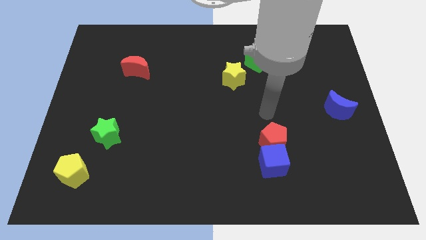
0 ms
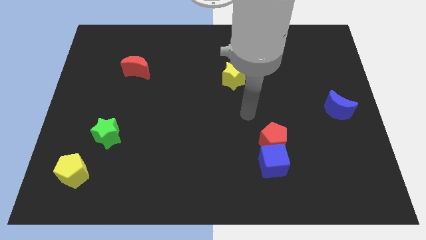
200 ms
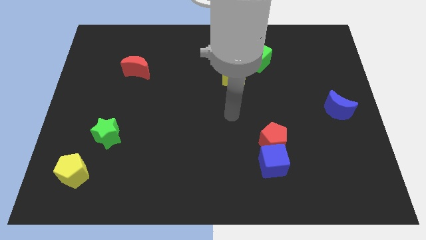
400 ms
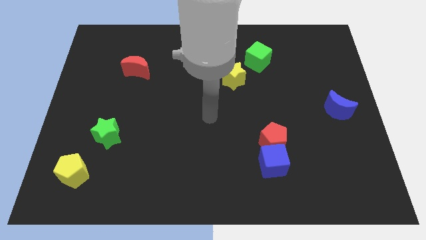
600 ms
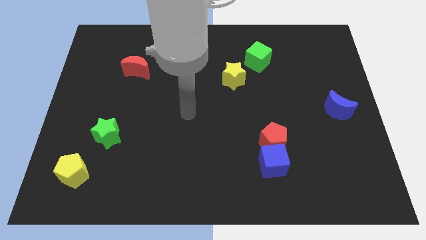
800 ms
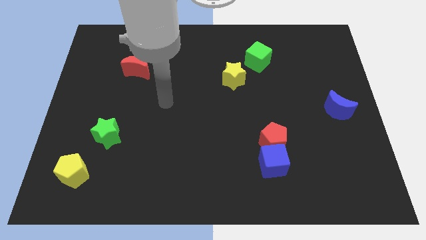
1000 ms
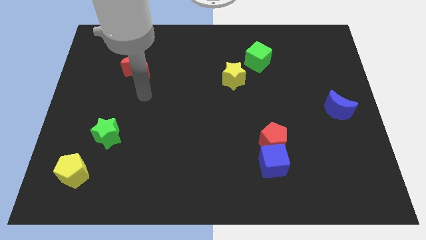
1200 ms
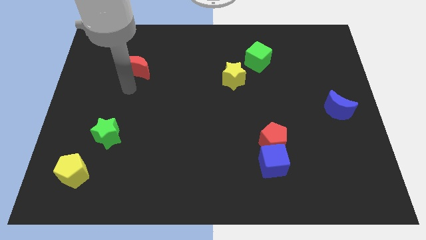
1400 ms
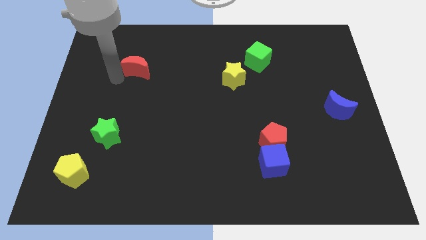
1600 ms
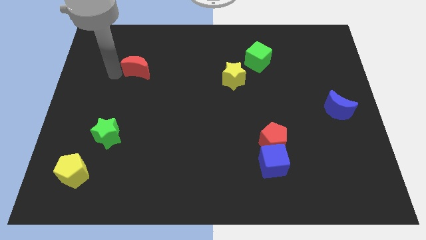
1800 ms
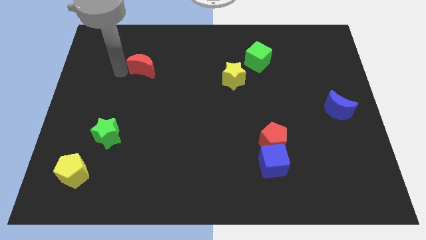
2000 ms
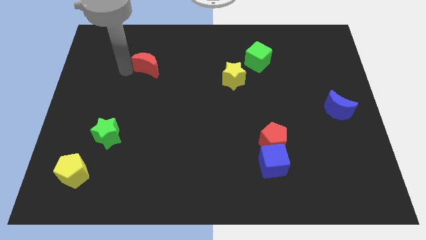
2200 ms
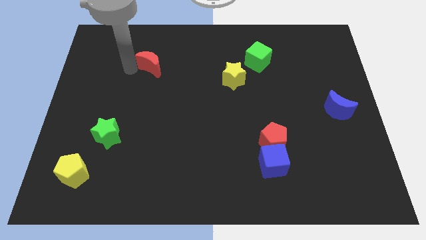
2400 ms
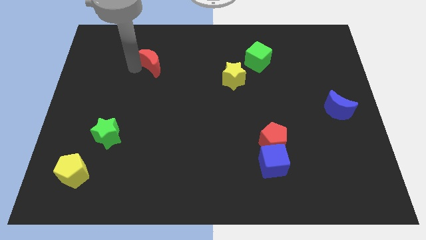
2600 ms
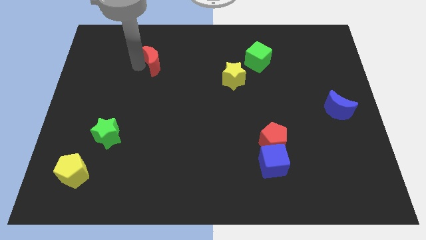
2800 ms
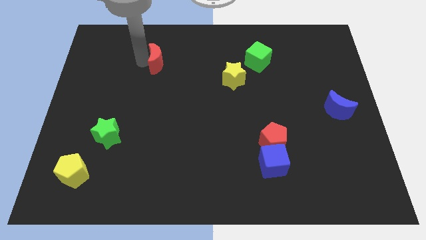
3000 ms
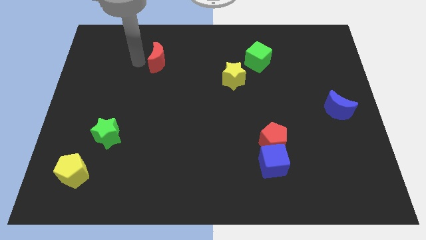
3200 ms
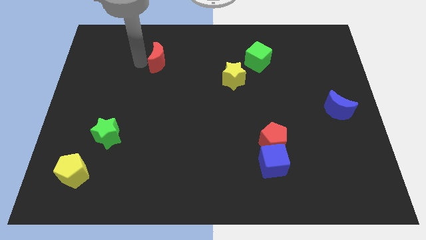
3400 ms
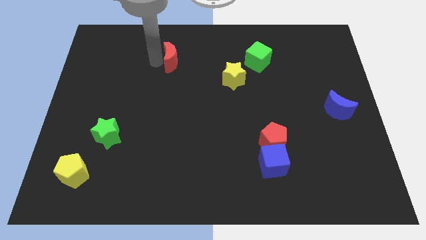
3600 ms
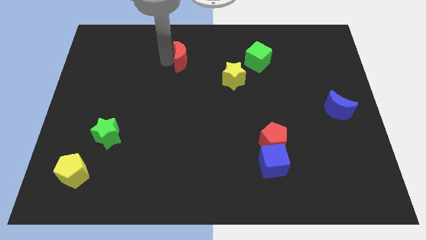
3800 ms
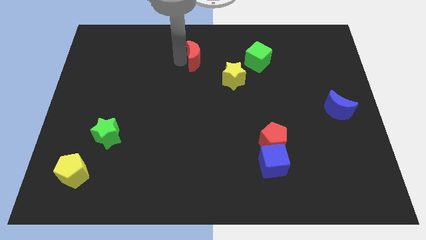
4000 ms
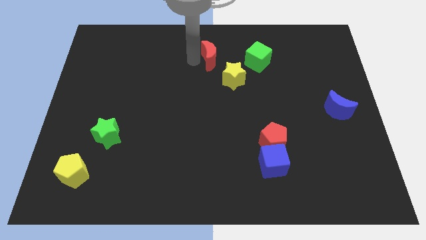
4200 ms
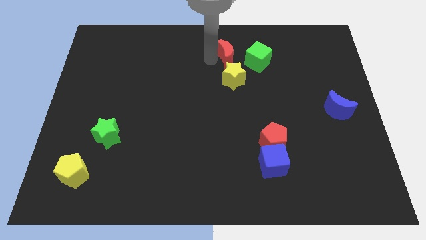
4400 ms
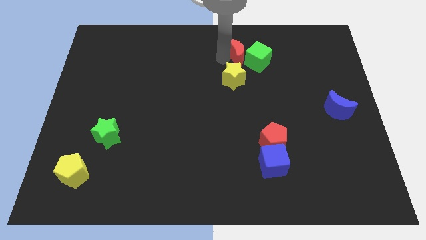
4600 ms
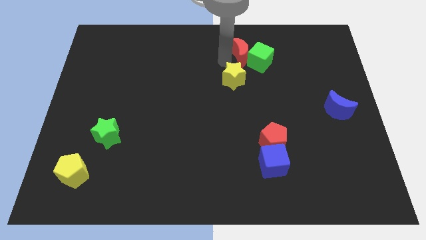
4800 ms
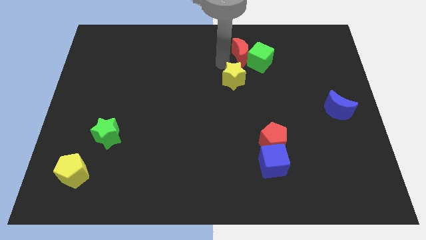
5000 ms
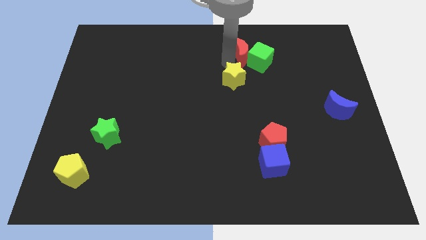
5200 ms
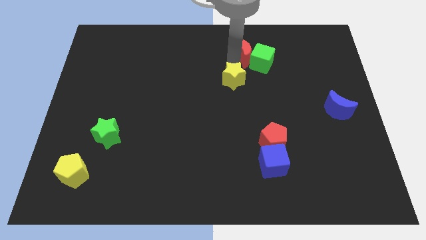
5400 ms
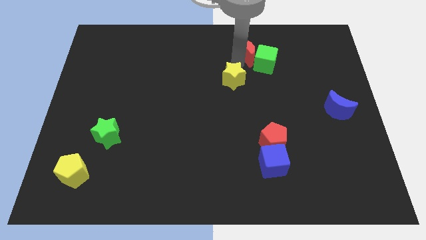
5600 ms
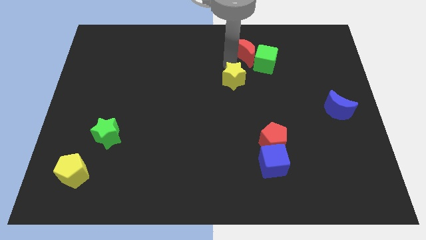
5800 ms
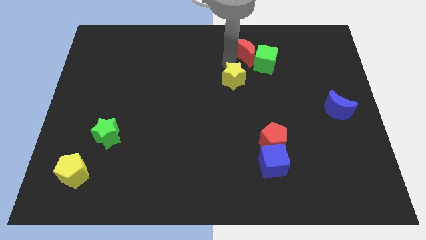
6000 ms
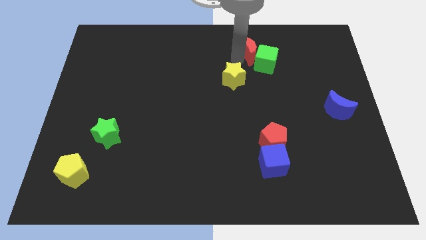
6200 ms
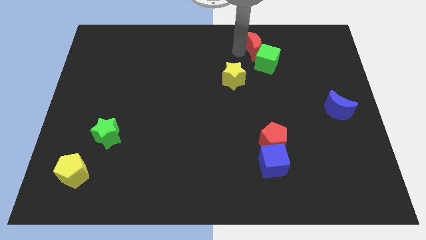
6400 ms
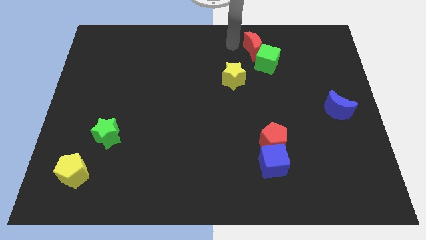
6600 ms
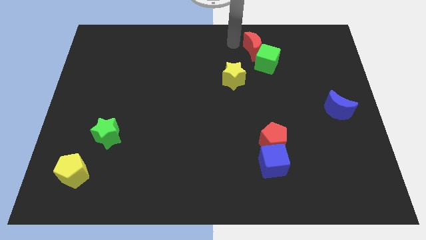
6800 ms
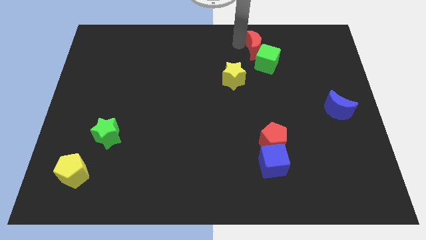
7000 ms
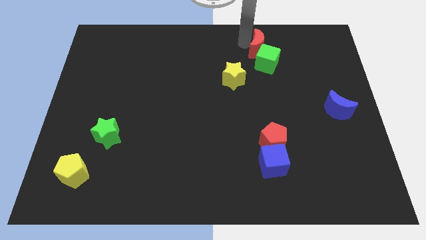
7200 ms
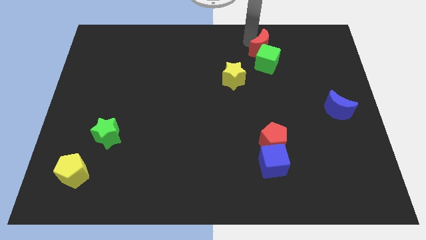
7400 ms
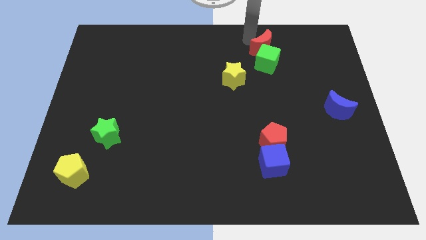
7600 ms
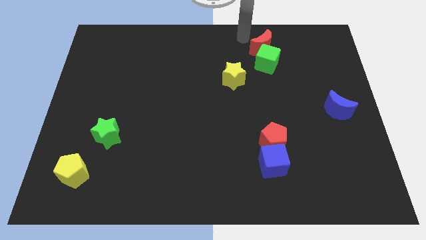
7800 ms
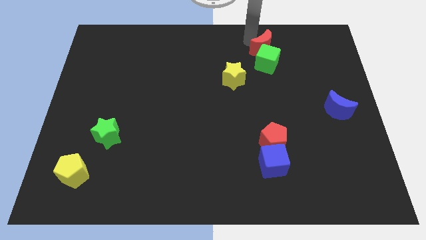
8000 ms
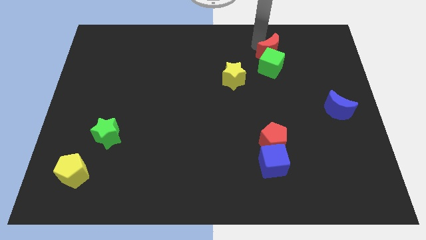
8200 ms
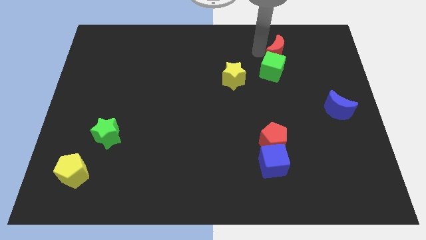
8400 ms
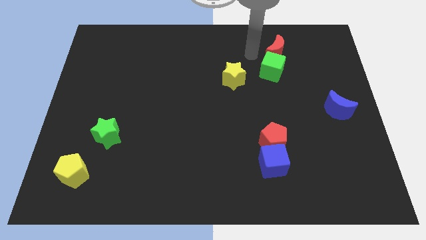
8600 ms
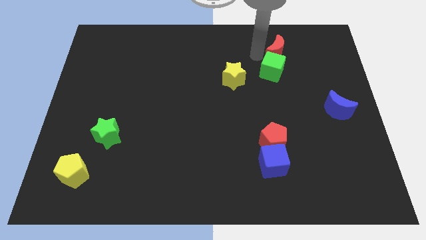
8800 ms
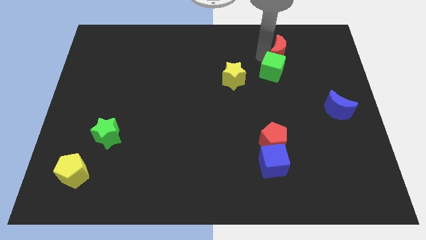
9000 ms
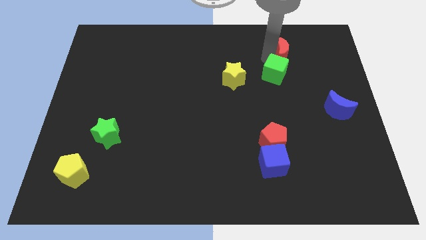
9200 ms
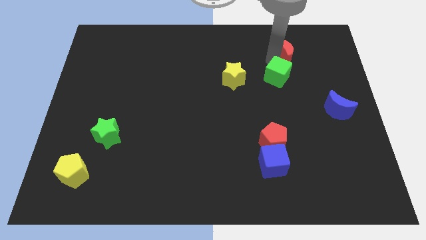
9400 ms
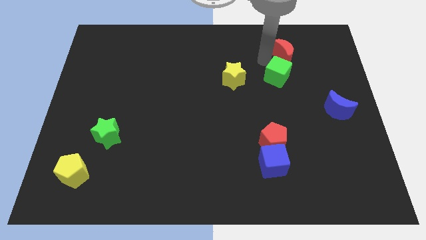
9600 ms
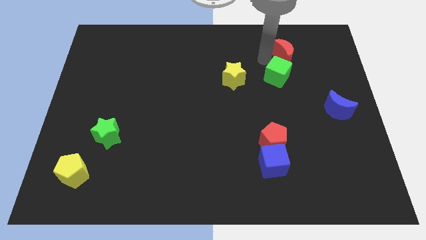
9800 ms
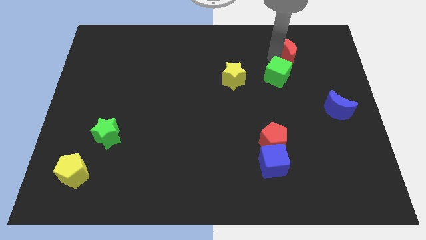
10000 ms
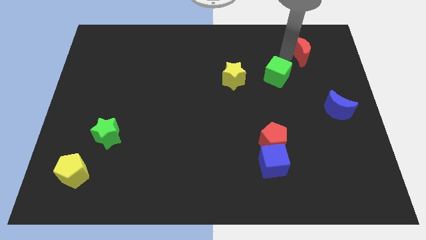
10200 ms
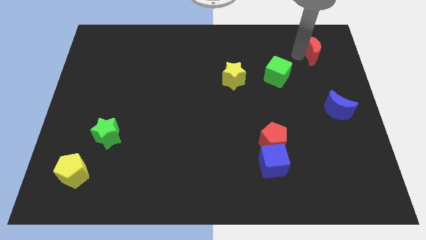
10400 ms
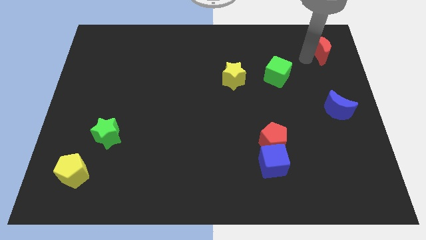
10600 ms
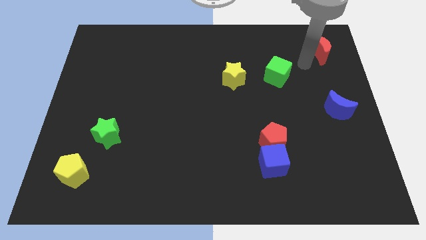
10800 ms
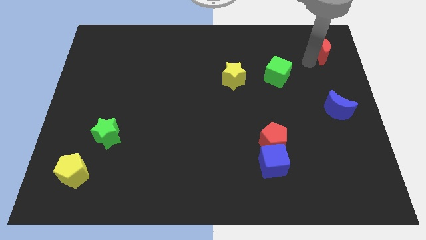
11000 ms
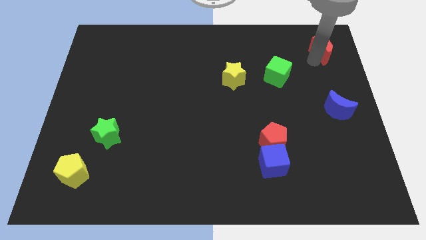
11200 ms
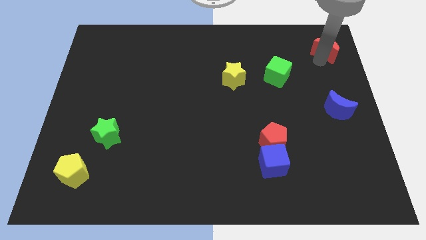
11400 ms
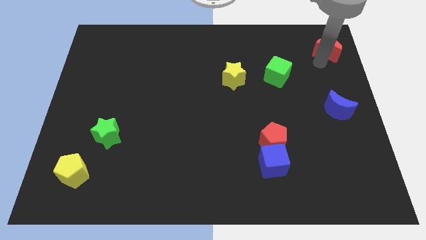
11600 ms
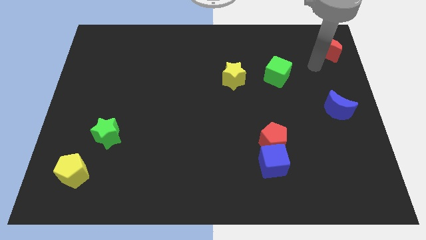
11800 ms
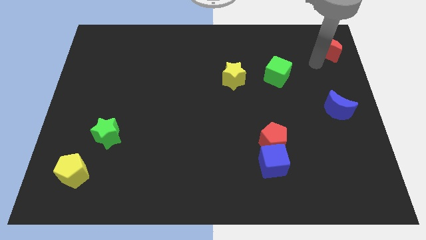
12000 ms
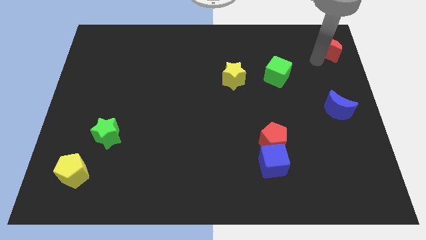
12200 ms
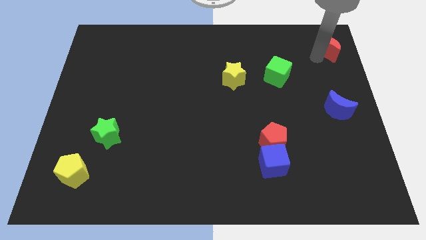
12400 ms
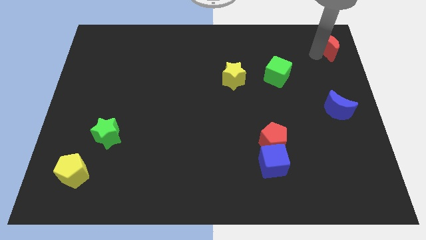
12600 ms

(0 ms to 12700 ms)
push the red moon to the top right
